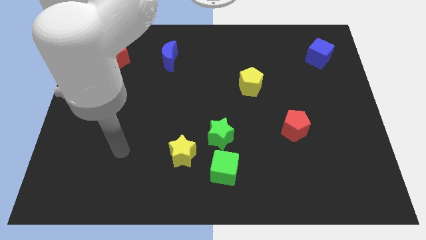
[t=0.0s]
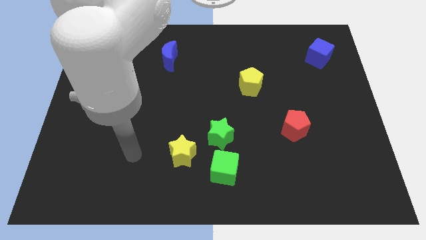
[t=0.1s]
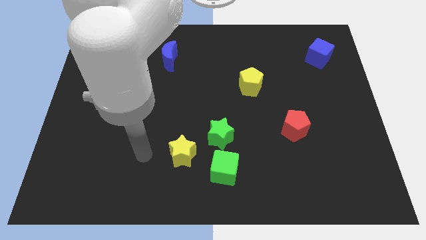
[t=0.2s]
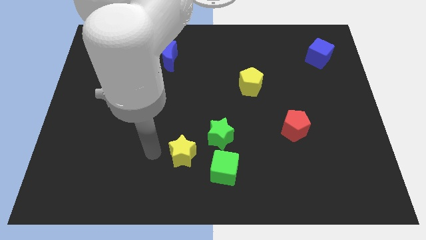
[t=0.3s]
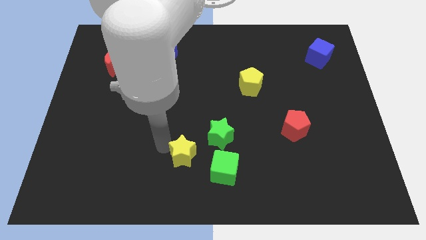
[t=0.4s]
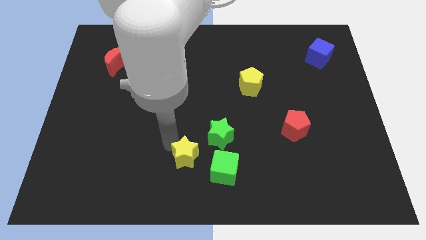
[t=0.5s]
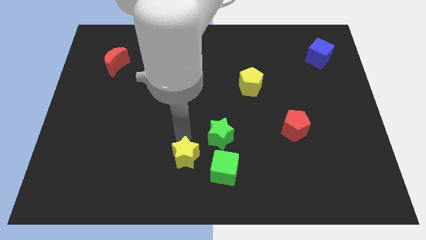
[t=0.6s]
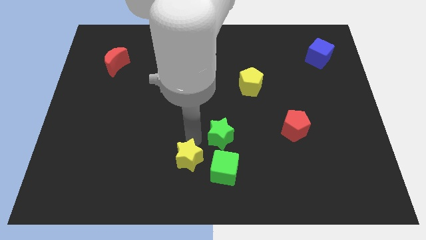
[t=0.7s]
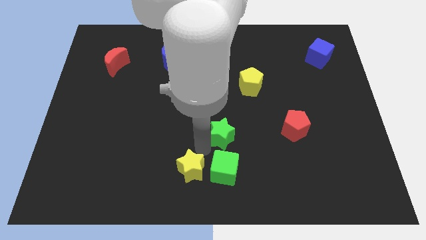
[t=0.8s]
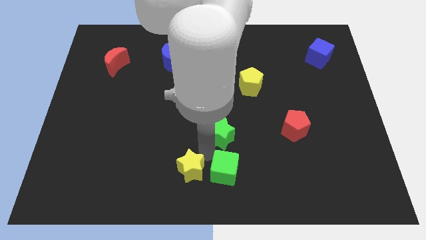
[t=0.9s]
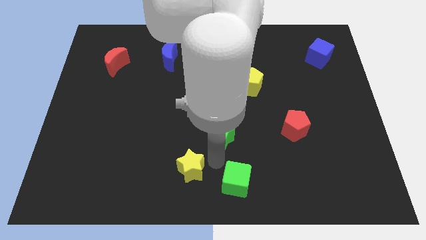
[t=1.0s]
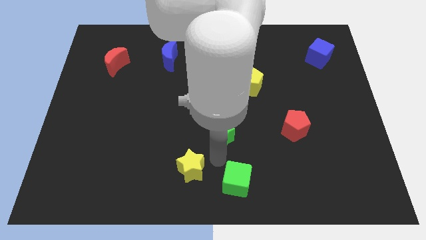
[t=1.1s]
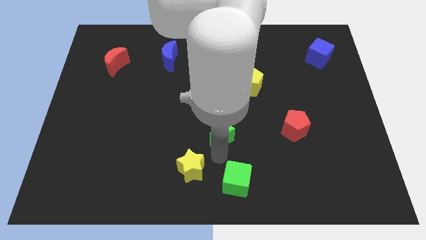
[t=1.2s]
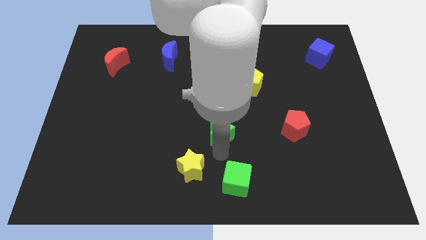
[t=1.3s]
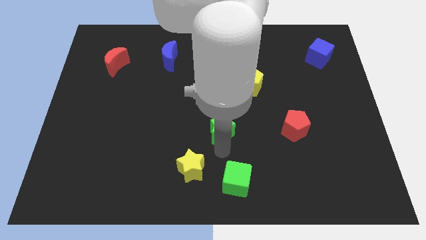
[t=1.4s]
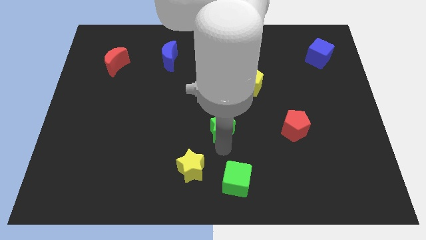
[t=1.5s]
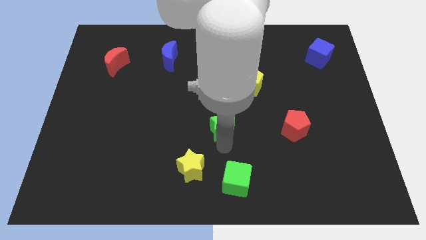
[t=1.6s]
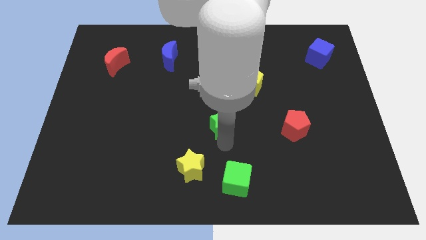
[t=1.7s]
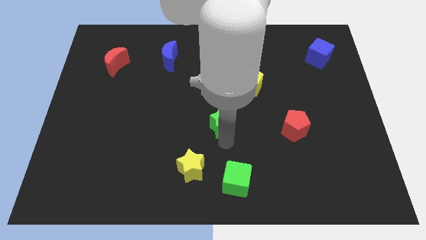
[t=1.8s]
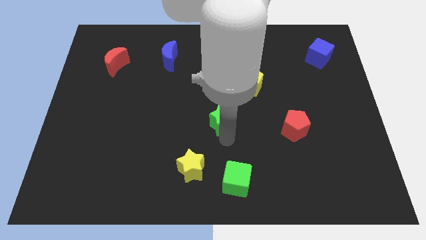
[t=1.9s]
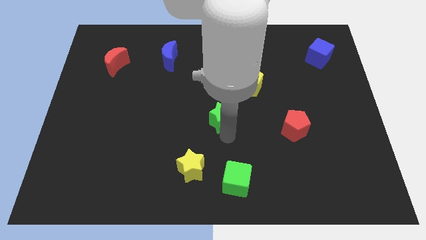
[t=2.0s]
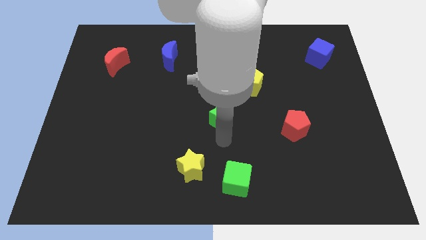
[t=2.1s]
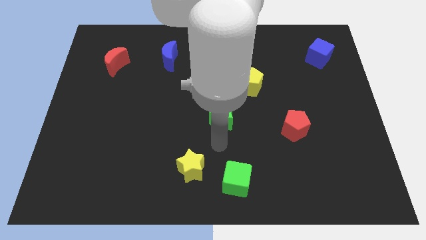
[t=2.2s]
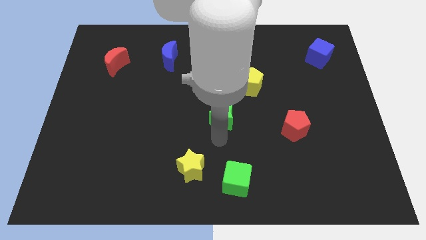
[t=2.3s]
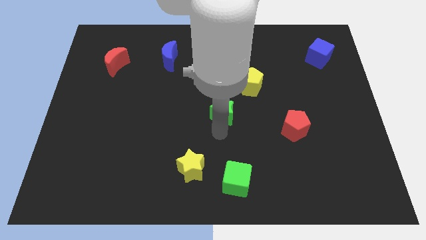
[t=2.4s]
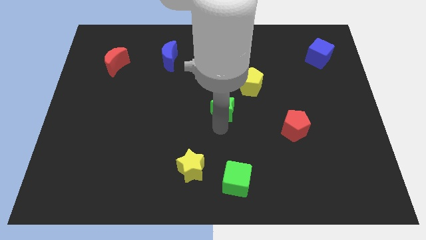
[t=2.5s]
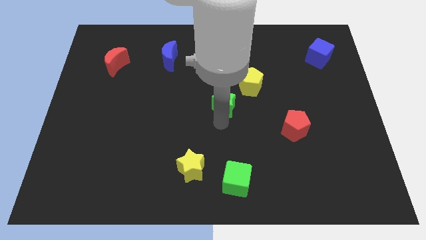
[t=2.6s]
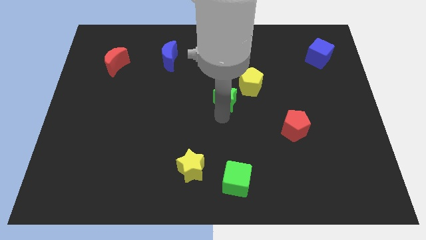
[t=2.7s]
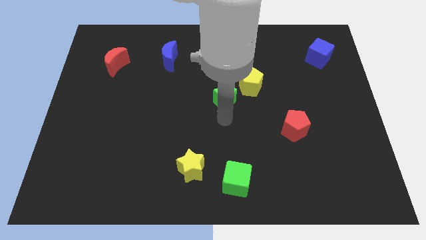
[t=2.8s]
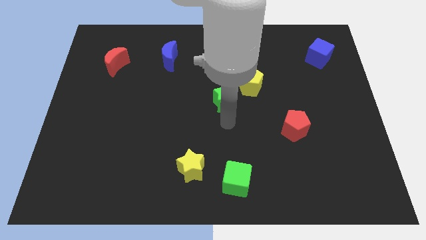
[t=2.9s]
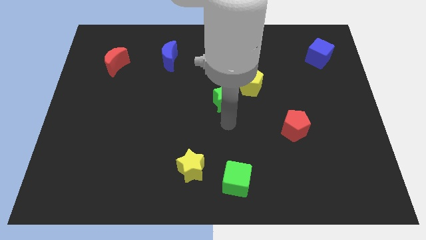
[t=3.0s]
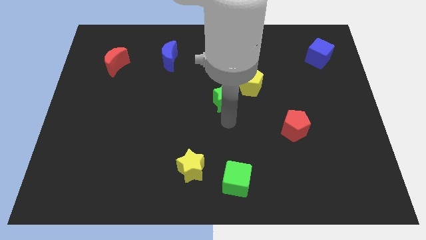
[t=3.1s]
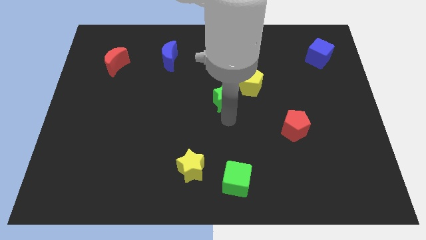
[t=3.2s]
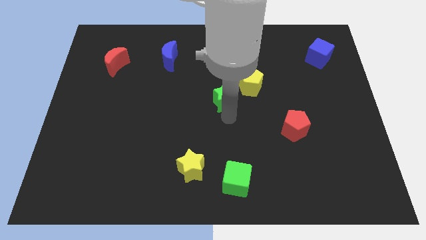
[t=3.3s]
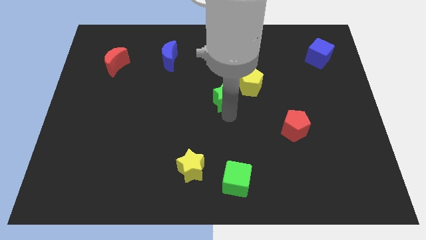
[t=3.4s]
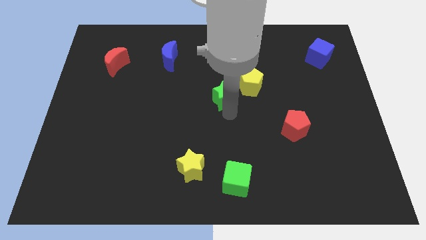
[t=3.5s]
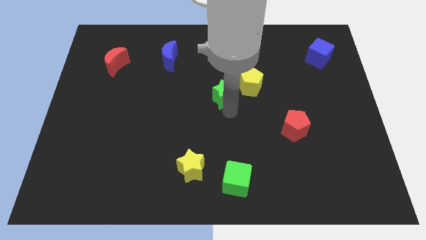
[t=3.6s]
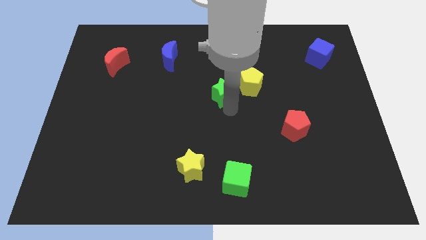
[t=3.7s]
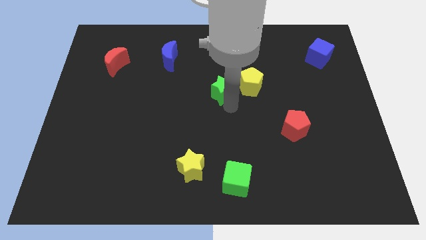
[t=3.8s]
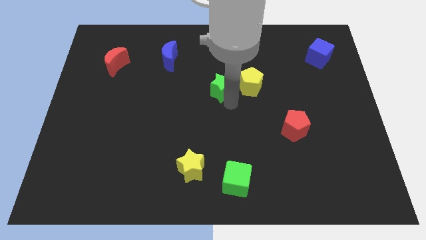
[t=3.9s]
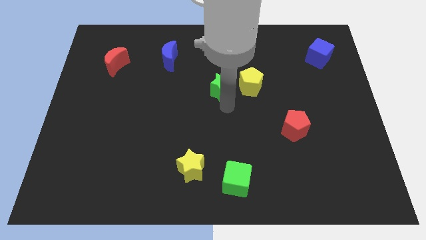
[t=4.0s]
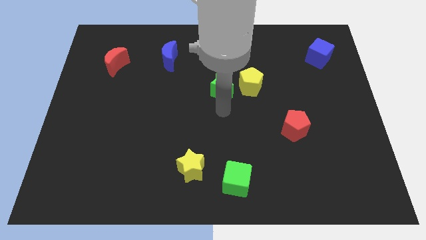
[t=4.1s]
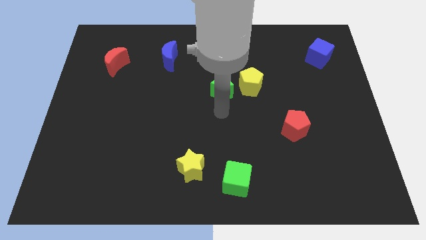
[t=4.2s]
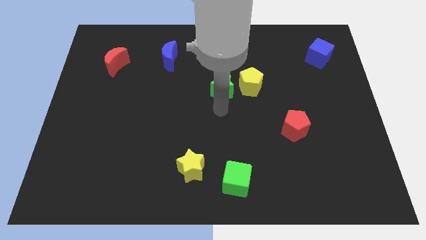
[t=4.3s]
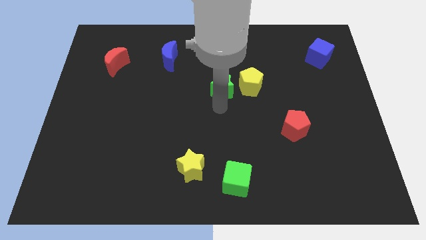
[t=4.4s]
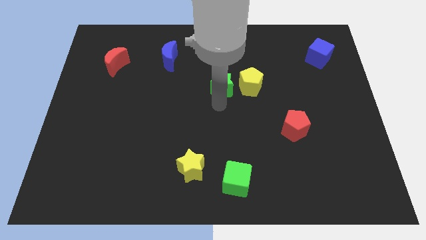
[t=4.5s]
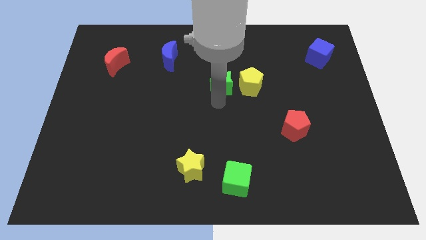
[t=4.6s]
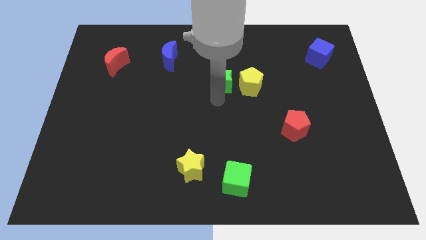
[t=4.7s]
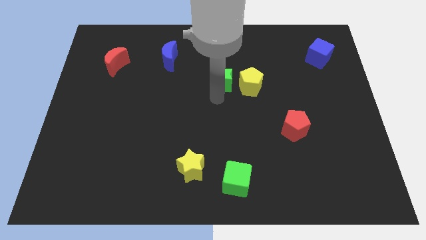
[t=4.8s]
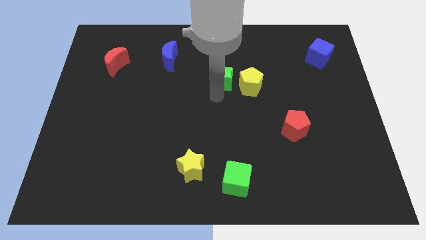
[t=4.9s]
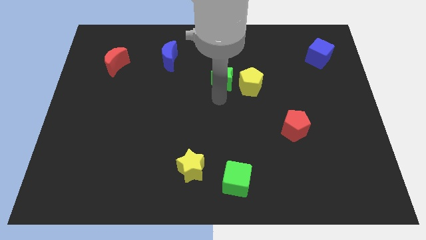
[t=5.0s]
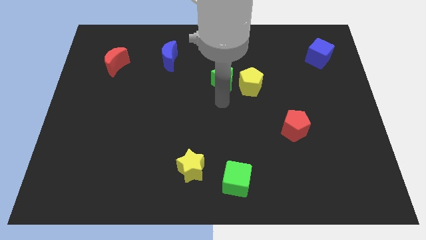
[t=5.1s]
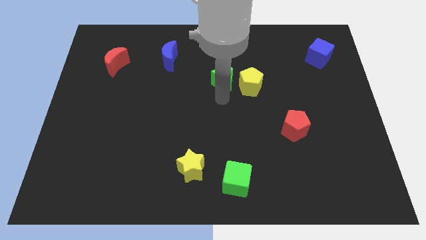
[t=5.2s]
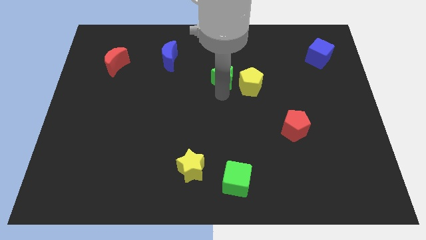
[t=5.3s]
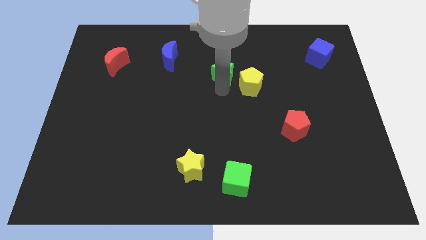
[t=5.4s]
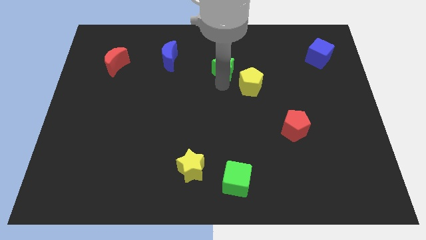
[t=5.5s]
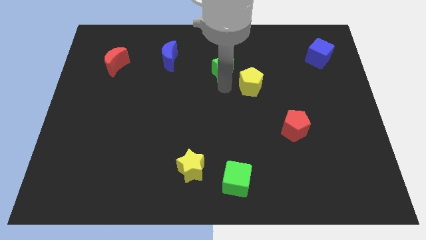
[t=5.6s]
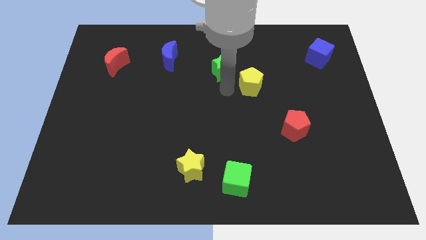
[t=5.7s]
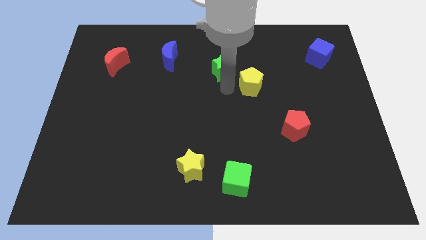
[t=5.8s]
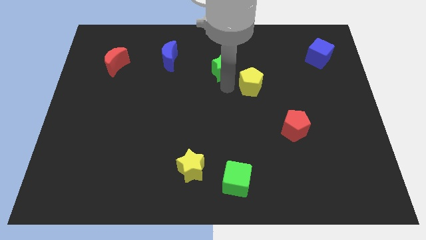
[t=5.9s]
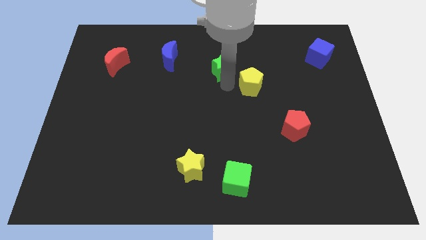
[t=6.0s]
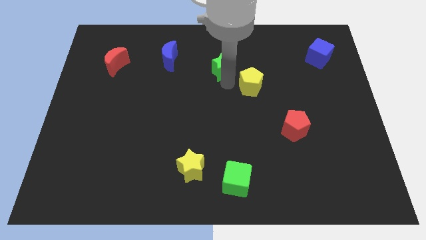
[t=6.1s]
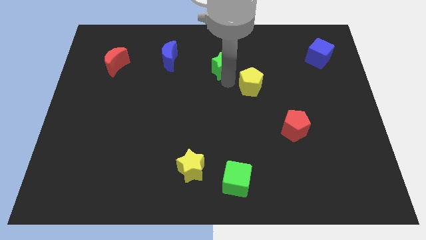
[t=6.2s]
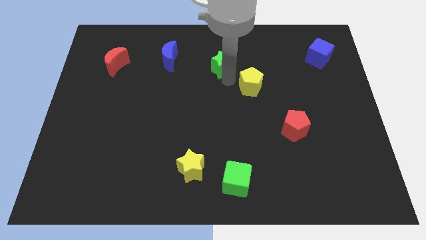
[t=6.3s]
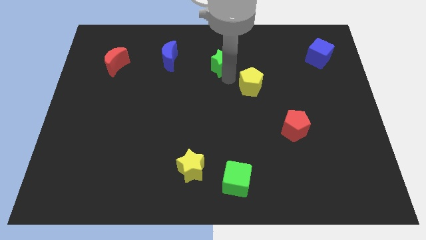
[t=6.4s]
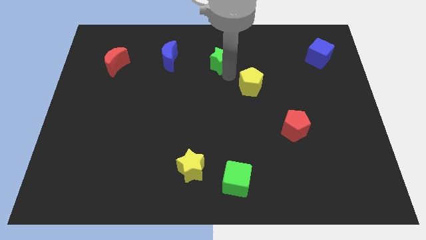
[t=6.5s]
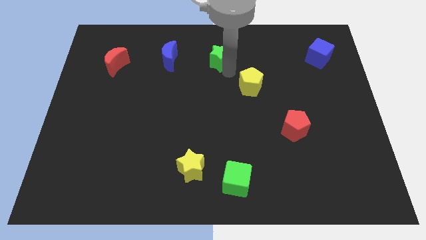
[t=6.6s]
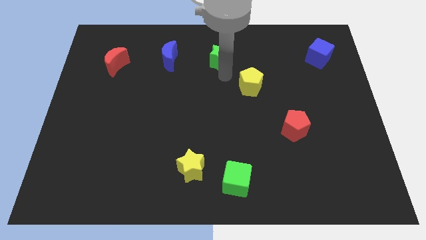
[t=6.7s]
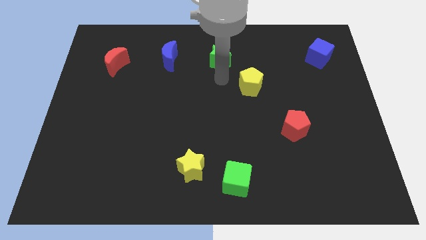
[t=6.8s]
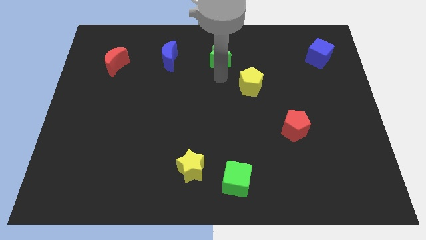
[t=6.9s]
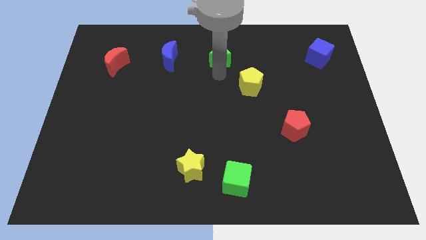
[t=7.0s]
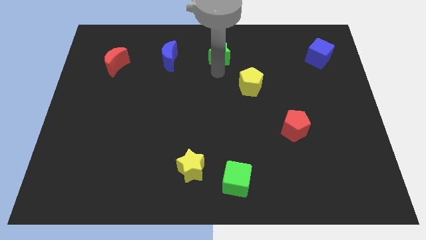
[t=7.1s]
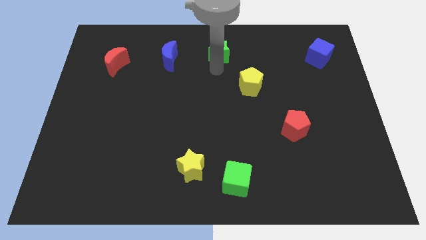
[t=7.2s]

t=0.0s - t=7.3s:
push the green star to the top side

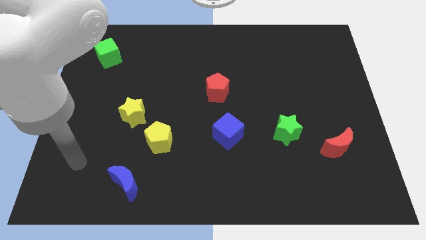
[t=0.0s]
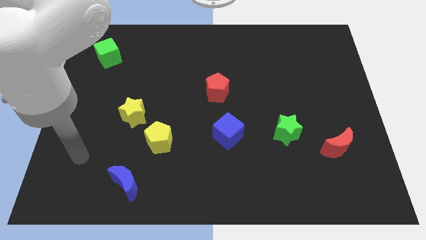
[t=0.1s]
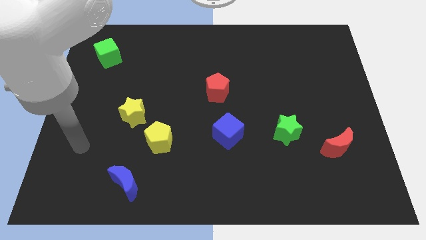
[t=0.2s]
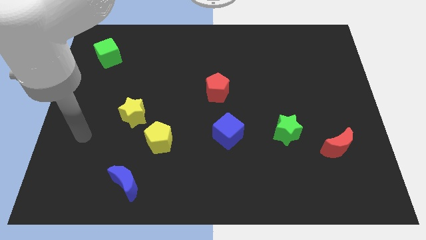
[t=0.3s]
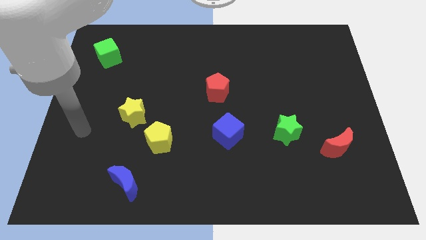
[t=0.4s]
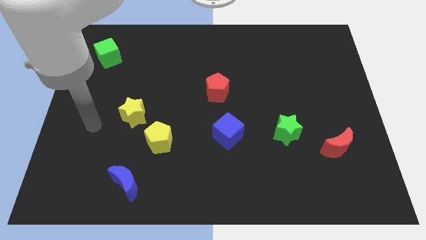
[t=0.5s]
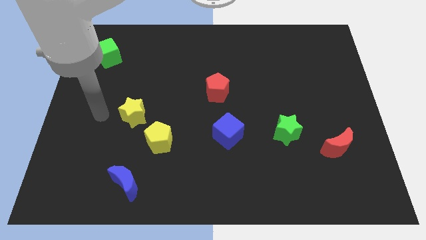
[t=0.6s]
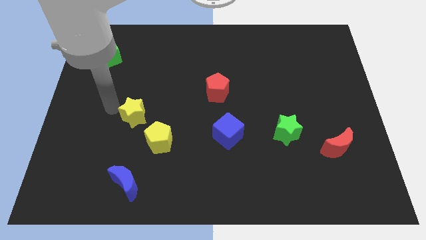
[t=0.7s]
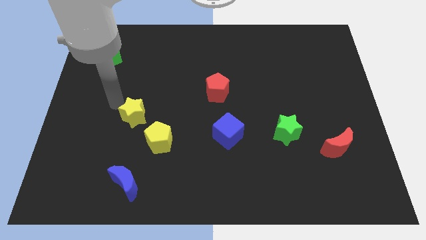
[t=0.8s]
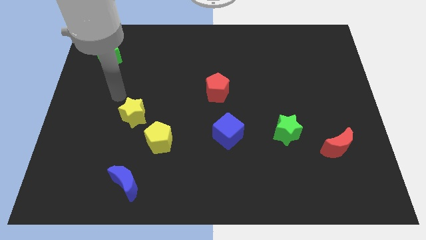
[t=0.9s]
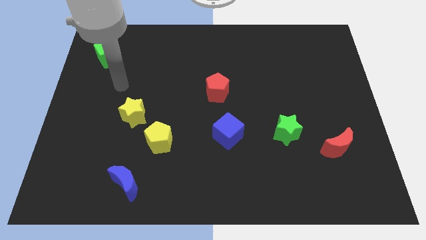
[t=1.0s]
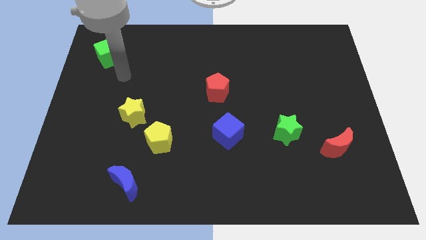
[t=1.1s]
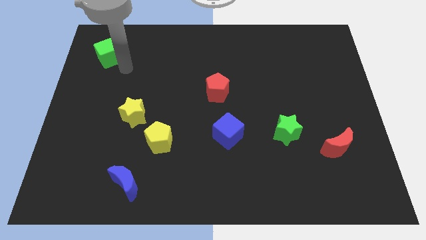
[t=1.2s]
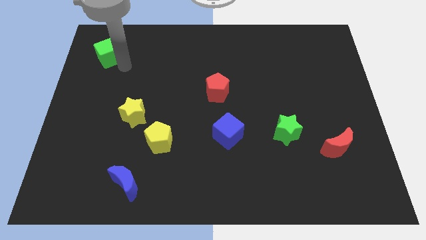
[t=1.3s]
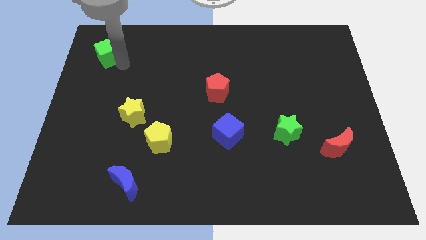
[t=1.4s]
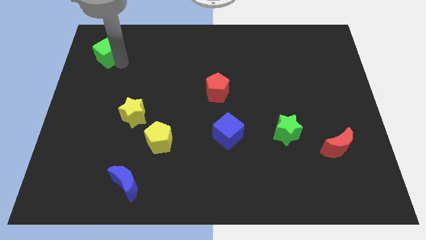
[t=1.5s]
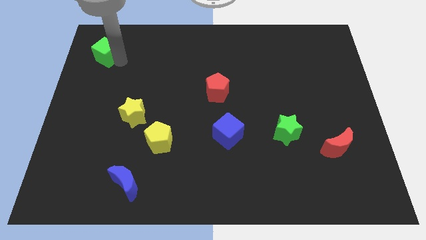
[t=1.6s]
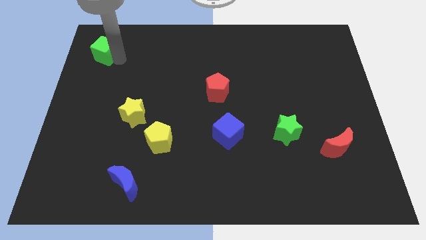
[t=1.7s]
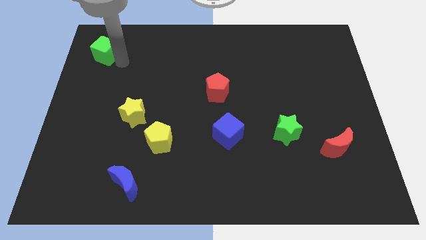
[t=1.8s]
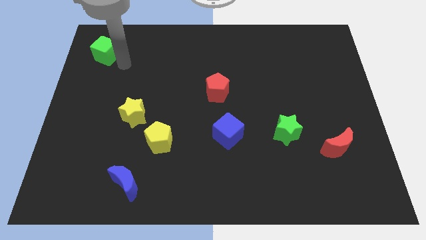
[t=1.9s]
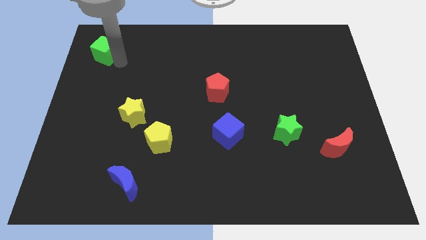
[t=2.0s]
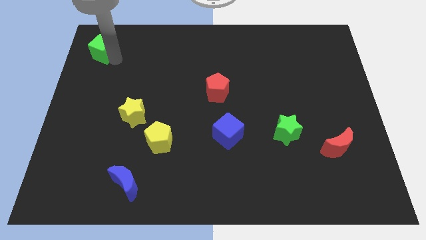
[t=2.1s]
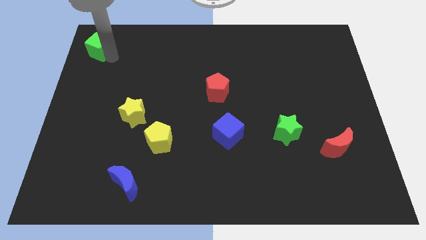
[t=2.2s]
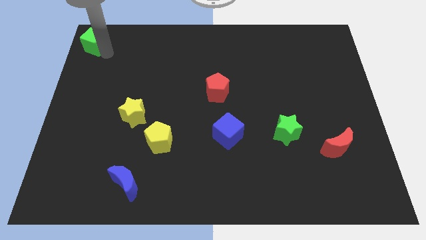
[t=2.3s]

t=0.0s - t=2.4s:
push the green cube to the top left corner
